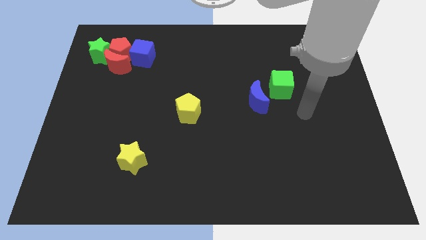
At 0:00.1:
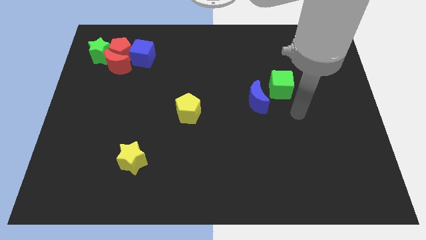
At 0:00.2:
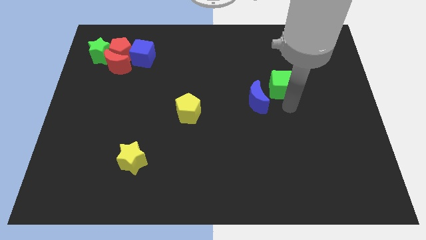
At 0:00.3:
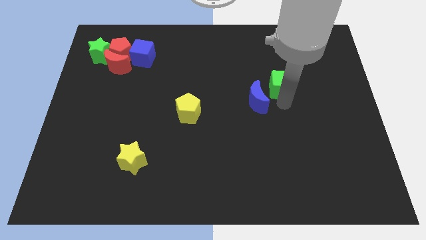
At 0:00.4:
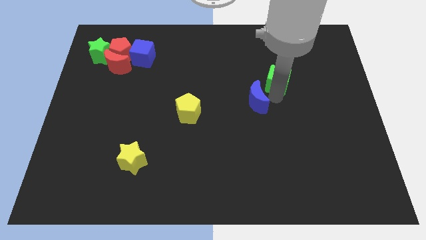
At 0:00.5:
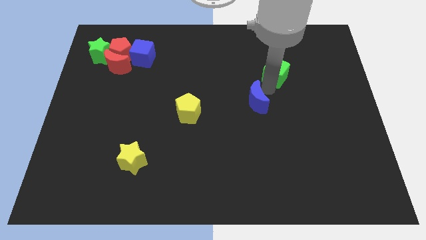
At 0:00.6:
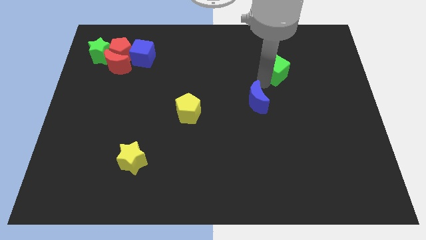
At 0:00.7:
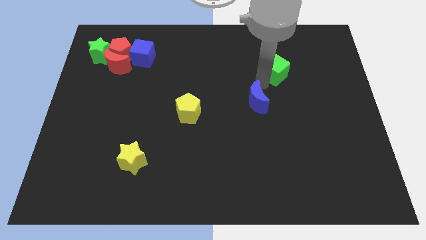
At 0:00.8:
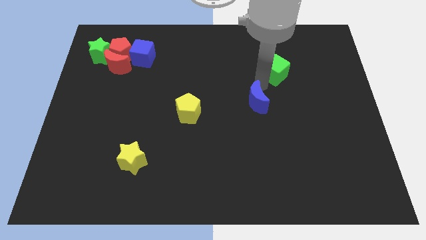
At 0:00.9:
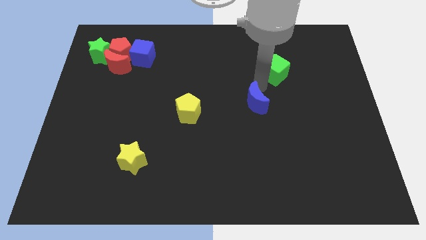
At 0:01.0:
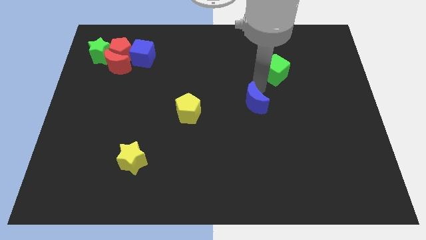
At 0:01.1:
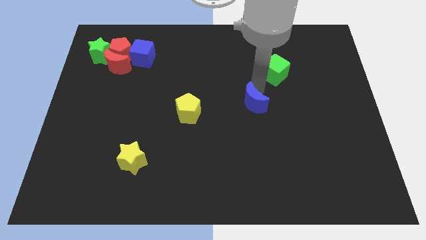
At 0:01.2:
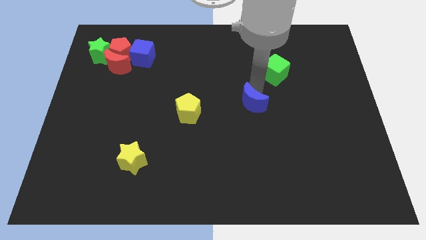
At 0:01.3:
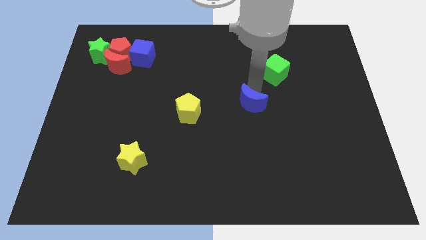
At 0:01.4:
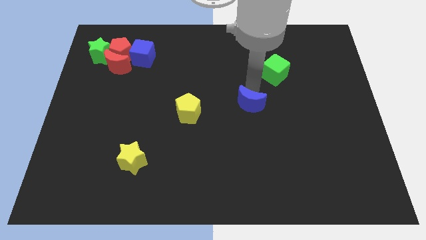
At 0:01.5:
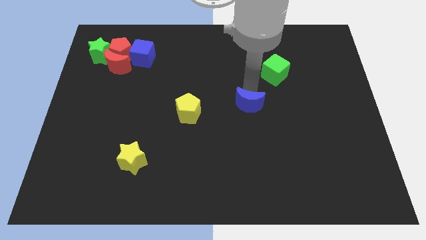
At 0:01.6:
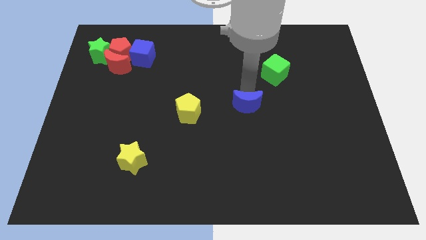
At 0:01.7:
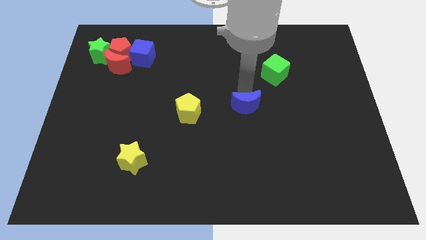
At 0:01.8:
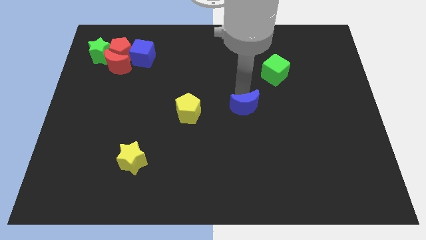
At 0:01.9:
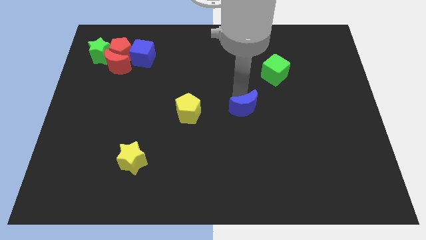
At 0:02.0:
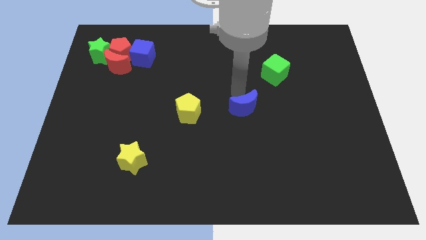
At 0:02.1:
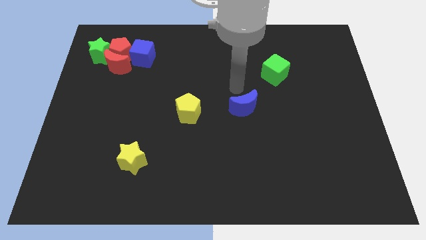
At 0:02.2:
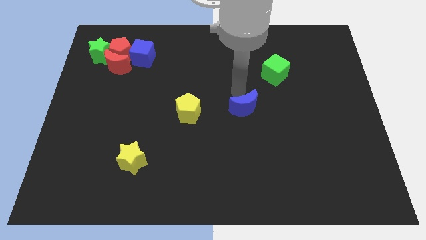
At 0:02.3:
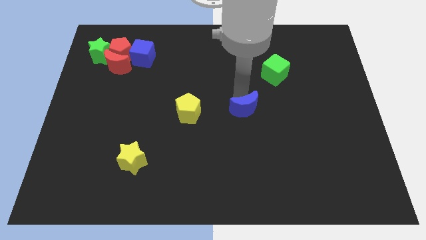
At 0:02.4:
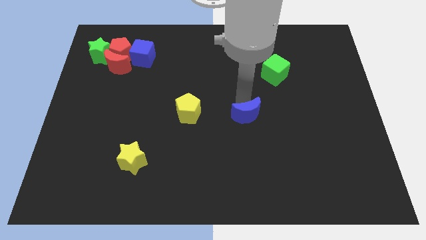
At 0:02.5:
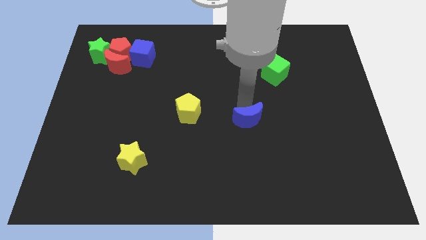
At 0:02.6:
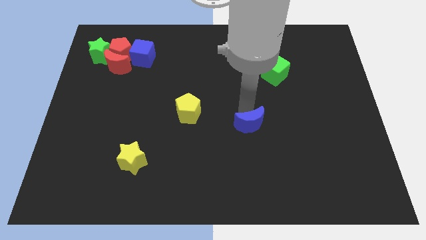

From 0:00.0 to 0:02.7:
move the blue moon down slightly

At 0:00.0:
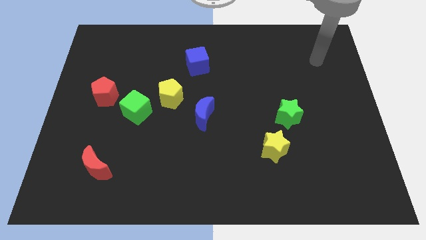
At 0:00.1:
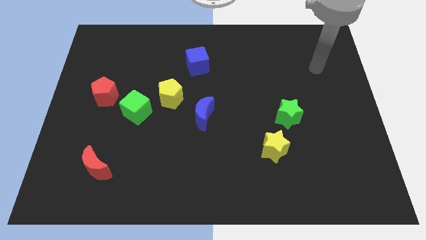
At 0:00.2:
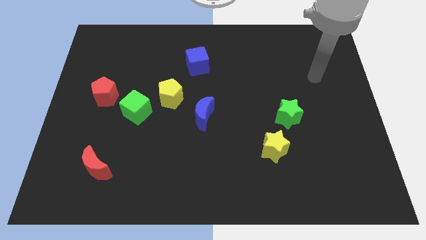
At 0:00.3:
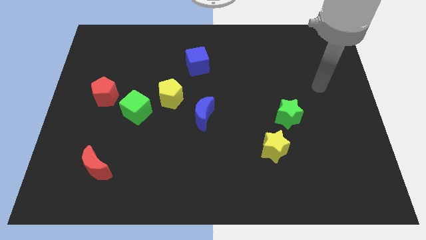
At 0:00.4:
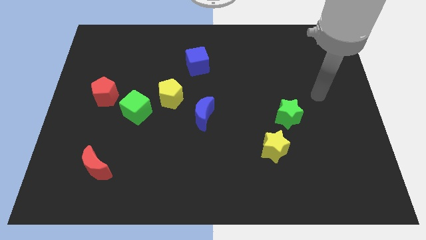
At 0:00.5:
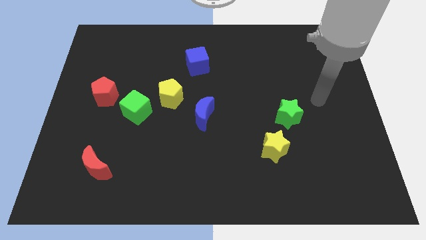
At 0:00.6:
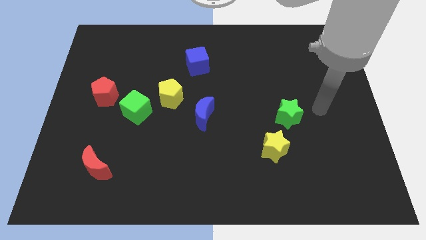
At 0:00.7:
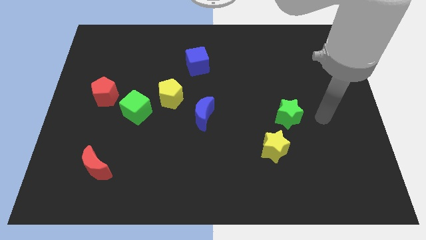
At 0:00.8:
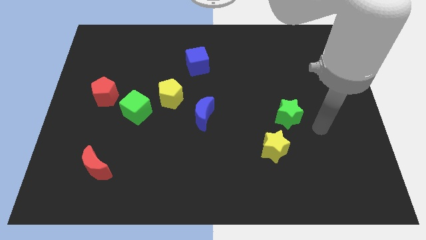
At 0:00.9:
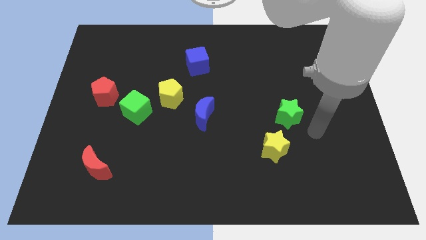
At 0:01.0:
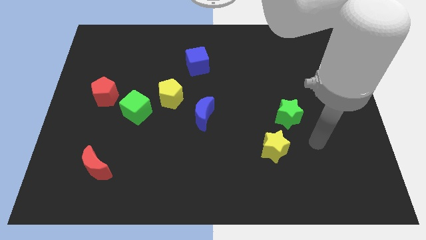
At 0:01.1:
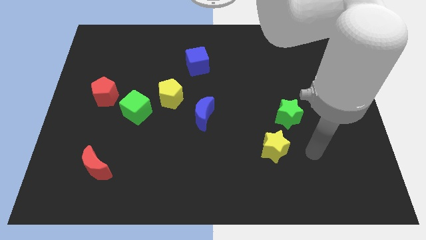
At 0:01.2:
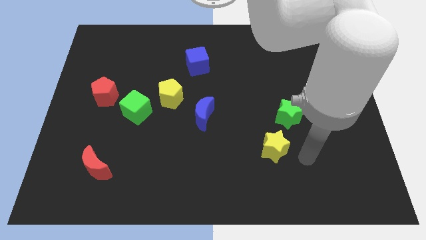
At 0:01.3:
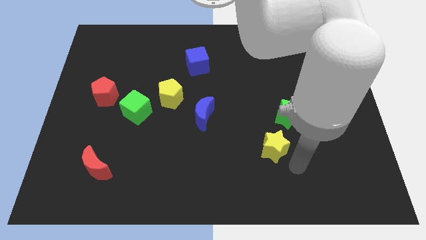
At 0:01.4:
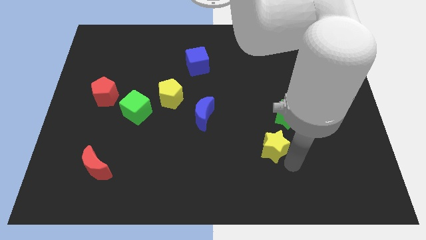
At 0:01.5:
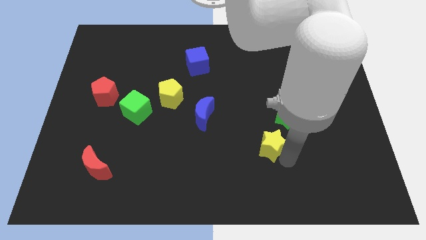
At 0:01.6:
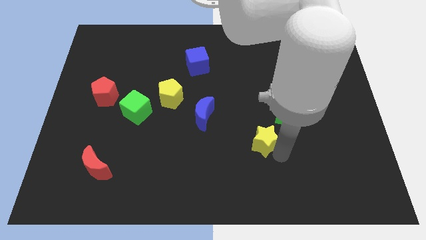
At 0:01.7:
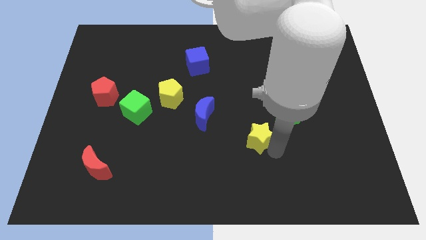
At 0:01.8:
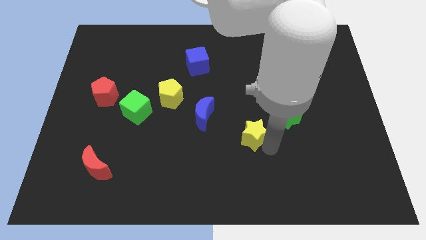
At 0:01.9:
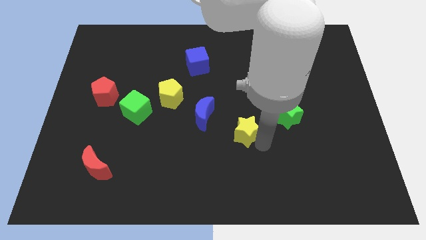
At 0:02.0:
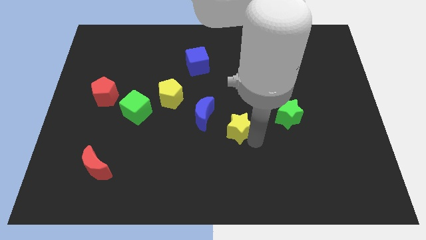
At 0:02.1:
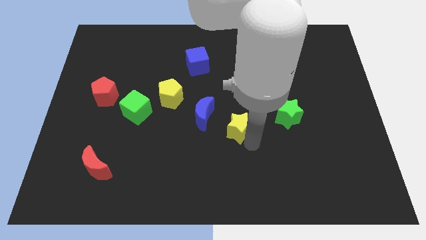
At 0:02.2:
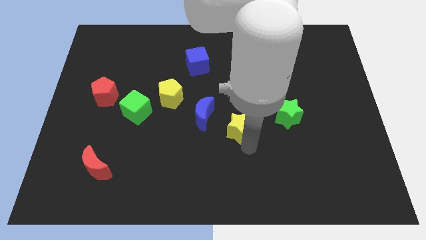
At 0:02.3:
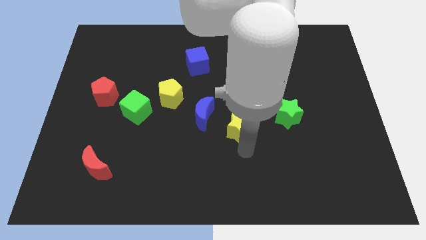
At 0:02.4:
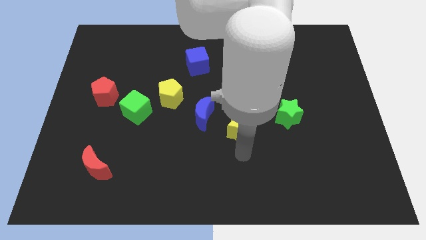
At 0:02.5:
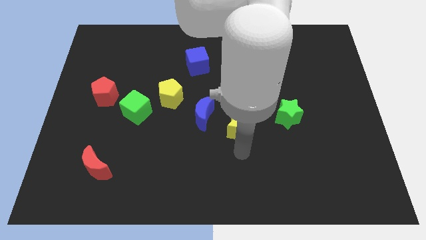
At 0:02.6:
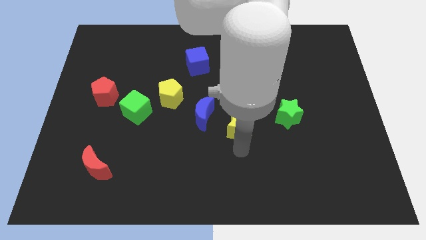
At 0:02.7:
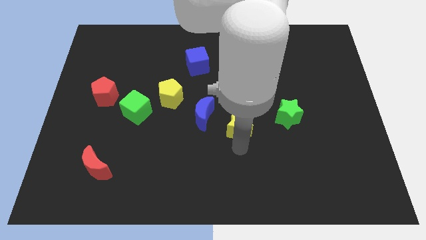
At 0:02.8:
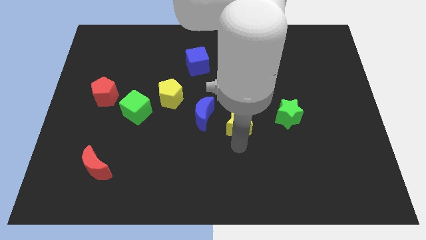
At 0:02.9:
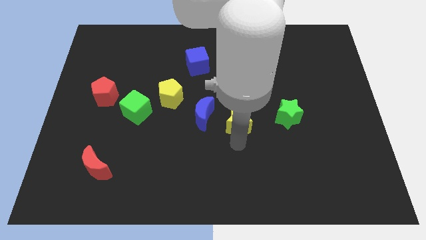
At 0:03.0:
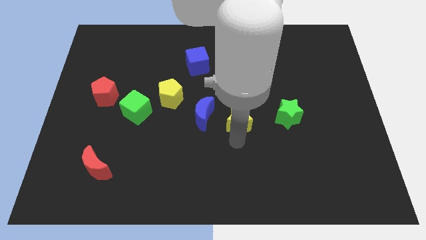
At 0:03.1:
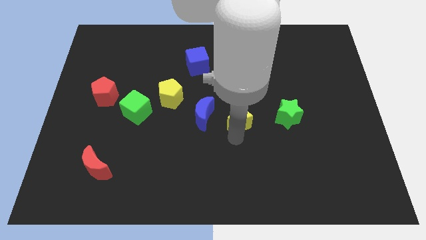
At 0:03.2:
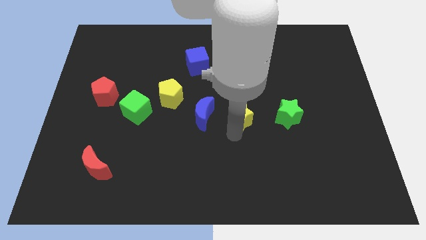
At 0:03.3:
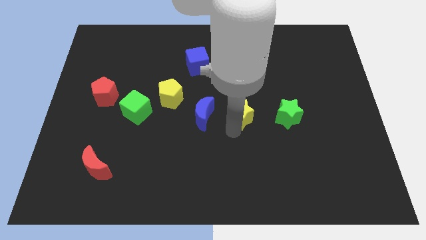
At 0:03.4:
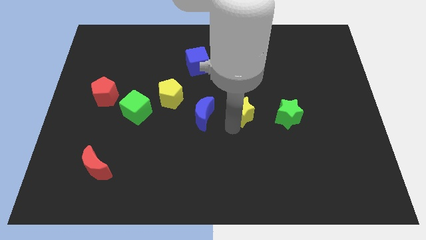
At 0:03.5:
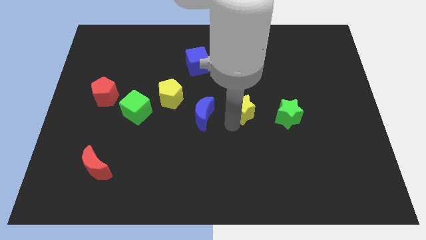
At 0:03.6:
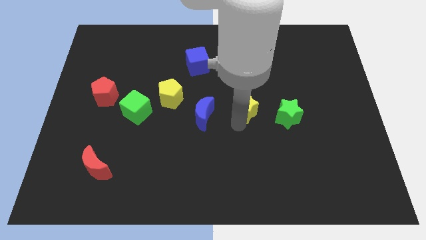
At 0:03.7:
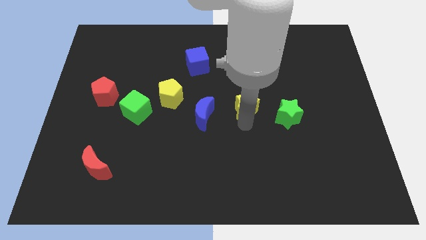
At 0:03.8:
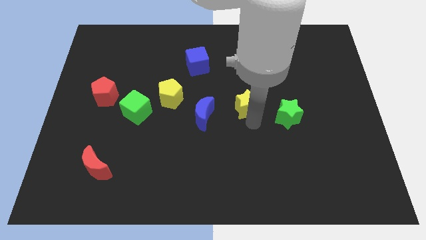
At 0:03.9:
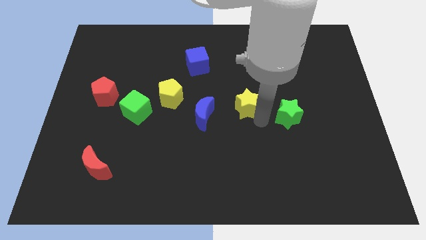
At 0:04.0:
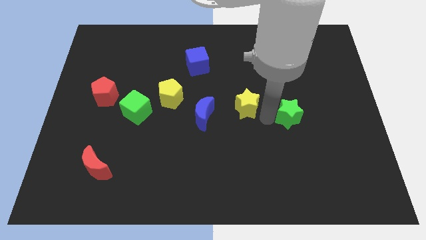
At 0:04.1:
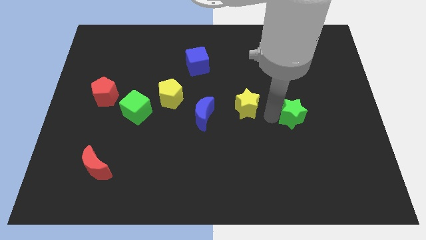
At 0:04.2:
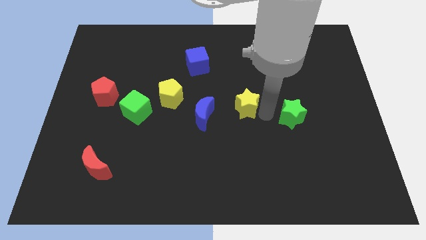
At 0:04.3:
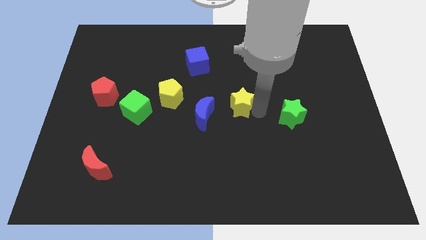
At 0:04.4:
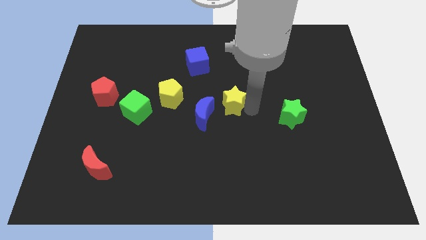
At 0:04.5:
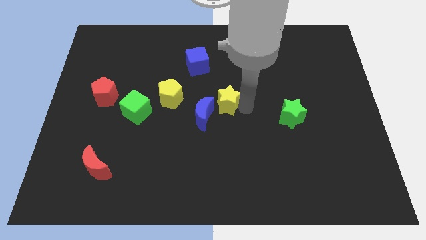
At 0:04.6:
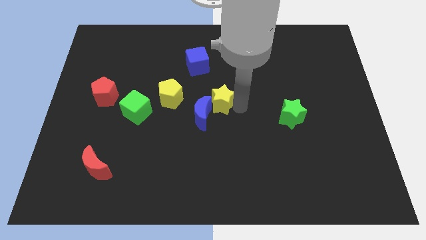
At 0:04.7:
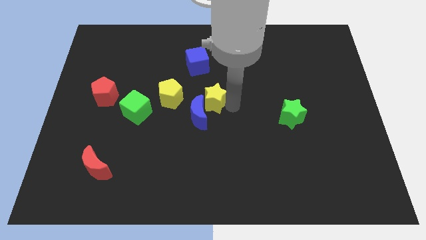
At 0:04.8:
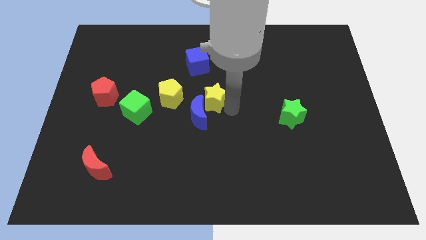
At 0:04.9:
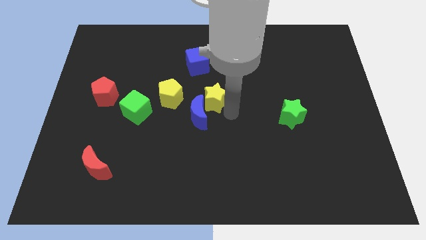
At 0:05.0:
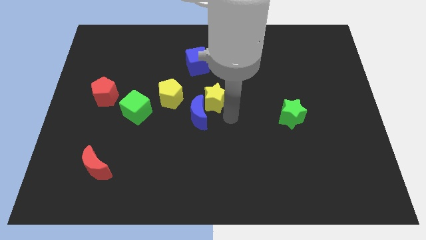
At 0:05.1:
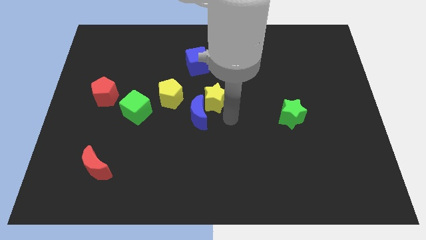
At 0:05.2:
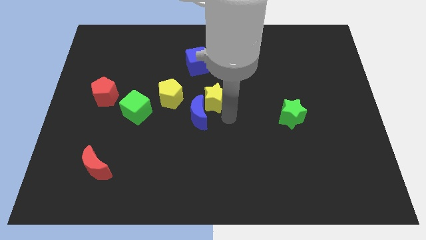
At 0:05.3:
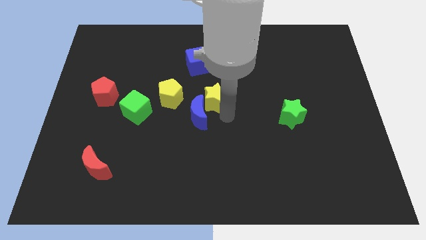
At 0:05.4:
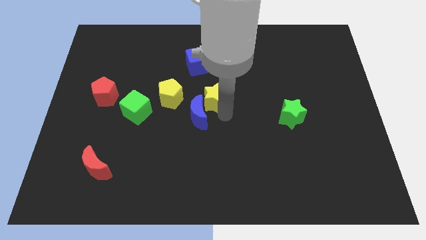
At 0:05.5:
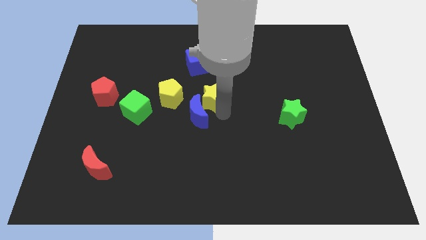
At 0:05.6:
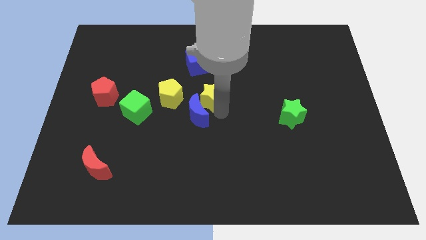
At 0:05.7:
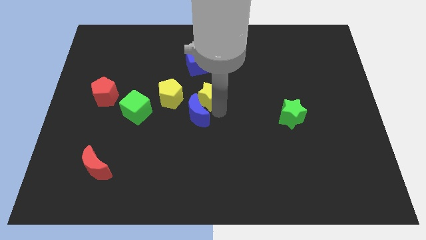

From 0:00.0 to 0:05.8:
move the yellow star upwards and to the left

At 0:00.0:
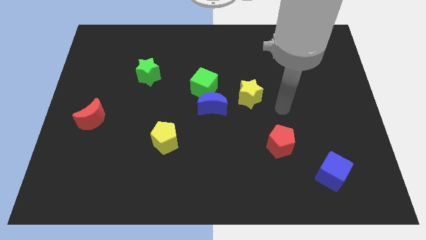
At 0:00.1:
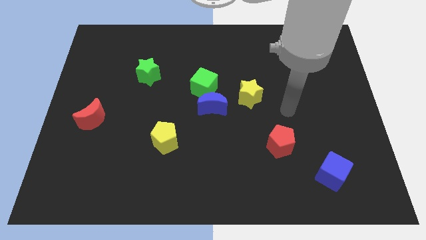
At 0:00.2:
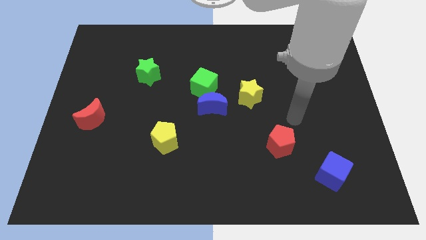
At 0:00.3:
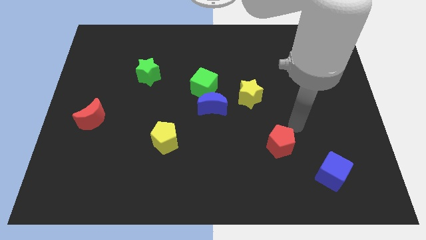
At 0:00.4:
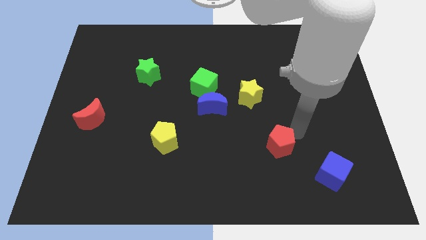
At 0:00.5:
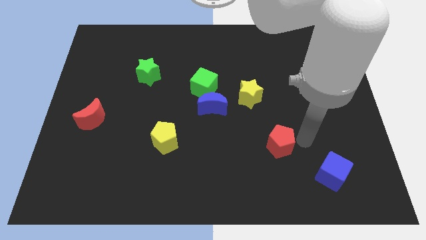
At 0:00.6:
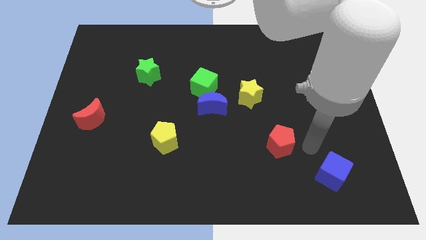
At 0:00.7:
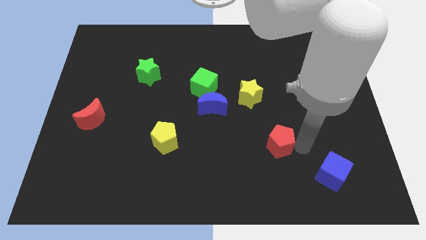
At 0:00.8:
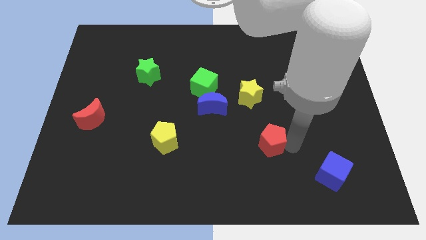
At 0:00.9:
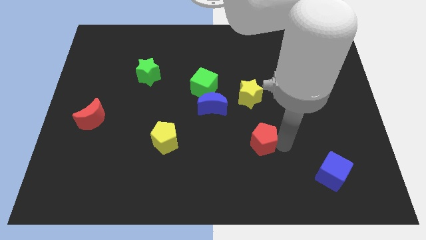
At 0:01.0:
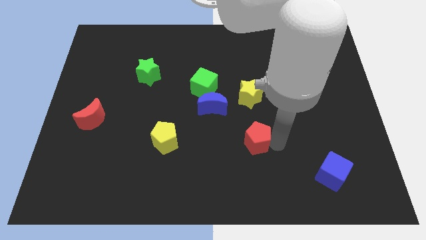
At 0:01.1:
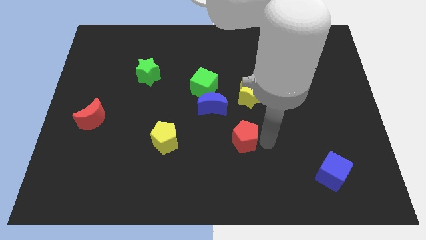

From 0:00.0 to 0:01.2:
move the red pentagon left slightly
